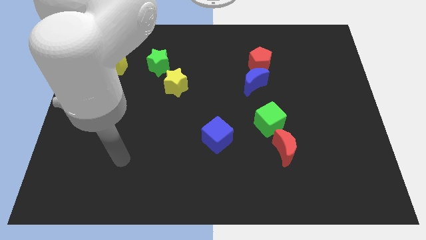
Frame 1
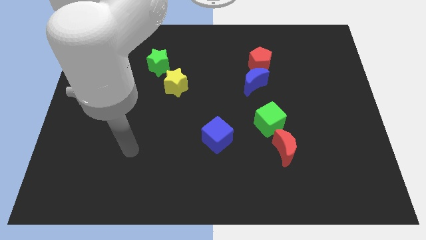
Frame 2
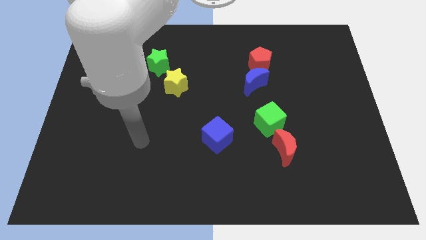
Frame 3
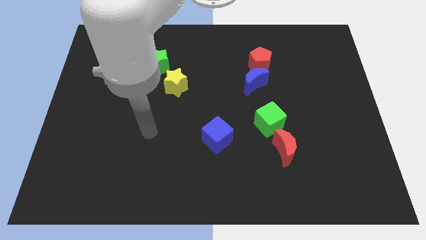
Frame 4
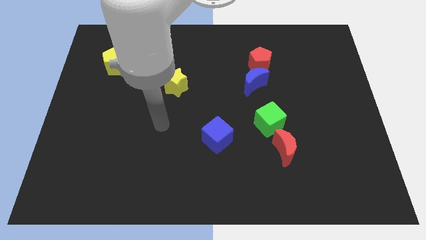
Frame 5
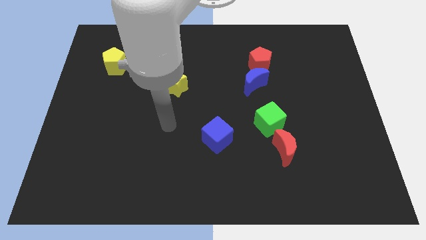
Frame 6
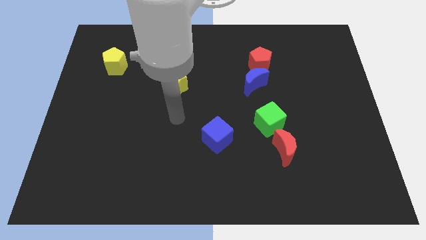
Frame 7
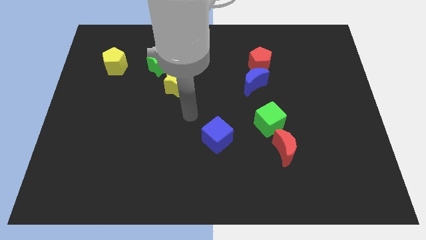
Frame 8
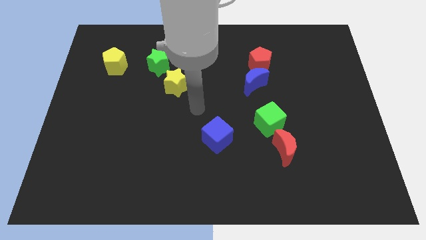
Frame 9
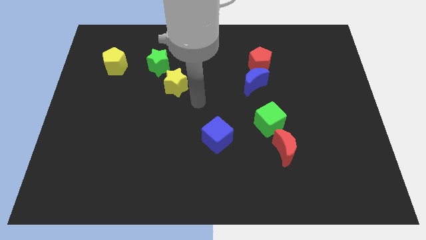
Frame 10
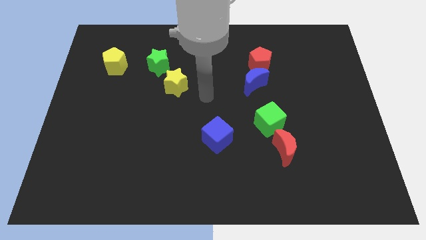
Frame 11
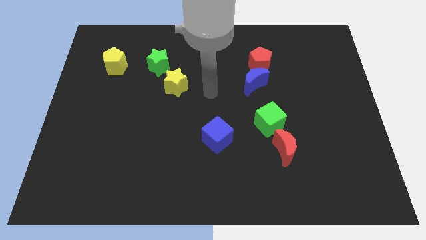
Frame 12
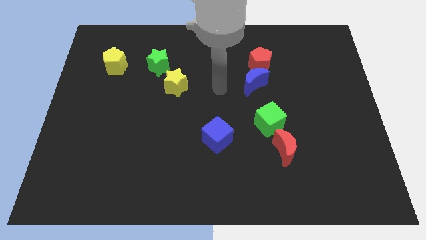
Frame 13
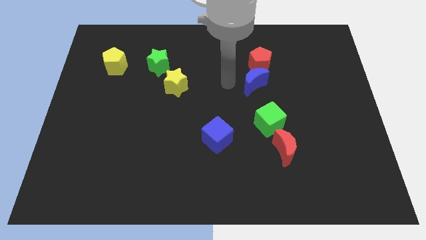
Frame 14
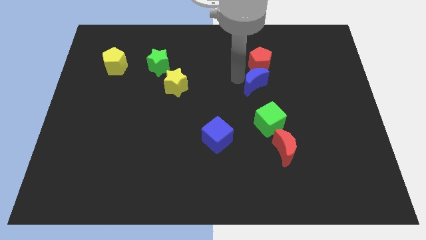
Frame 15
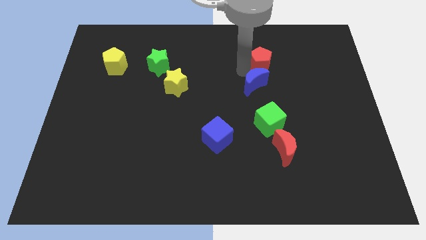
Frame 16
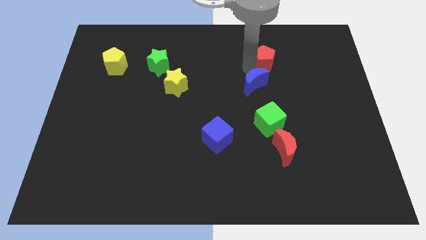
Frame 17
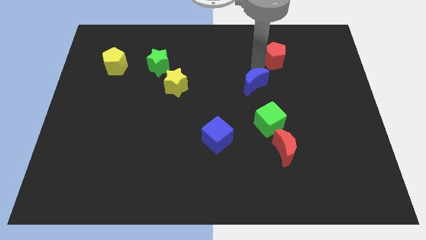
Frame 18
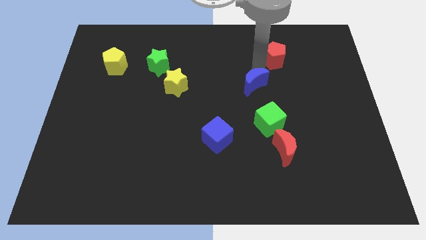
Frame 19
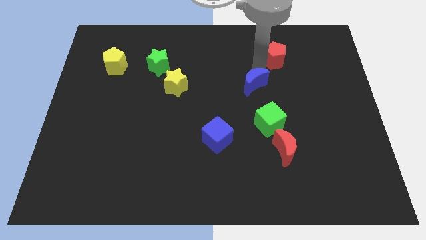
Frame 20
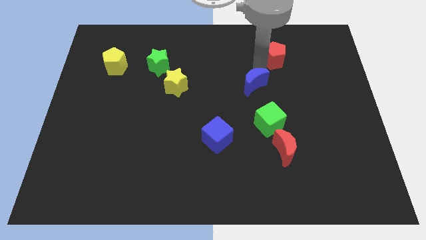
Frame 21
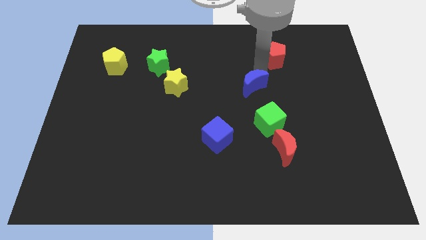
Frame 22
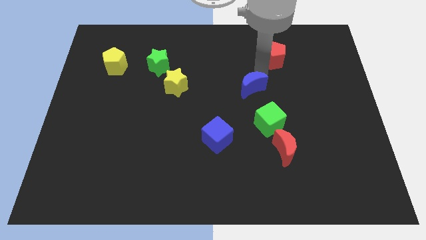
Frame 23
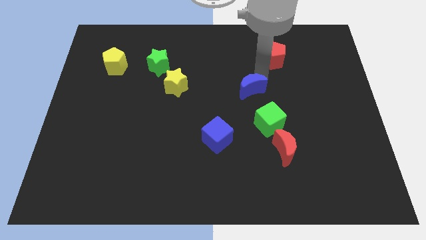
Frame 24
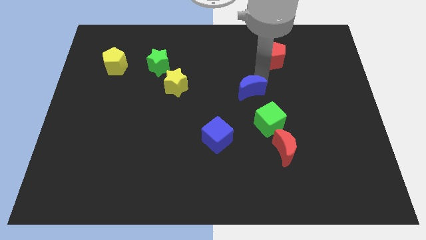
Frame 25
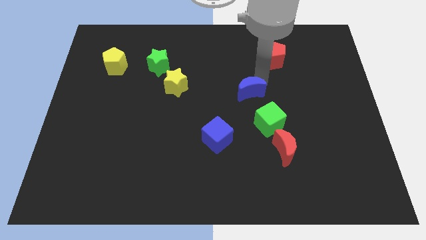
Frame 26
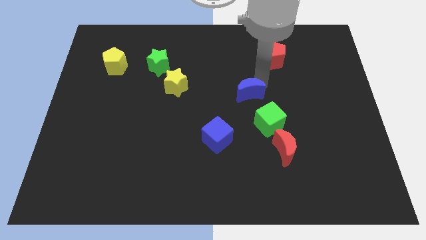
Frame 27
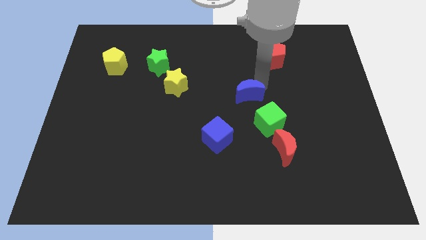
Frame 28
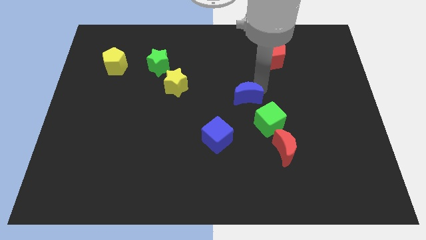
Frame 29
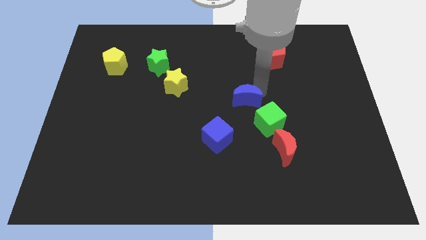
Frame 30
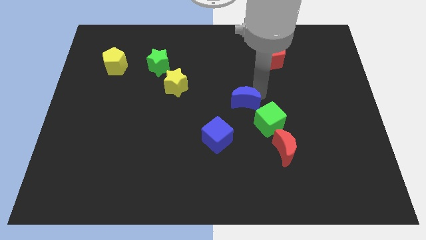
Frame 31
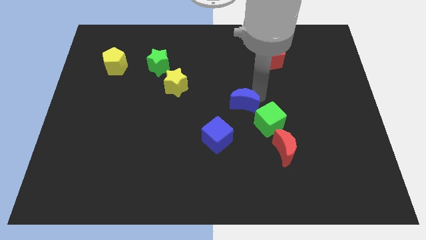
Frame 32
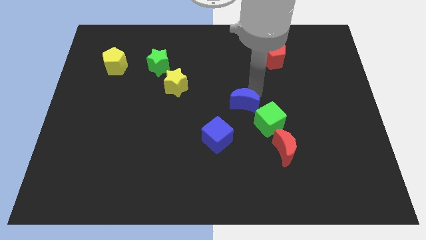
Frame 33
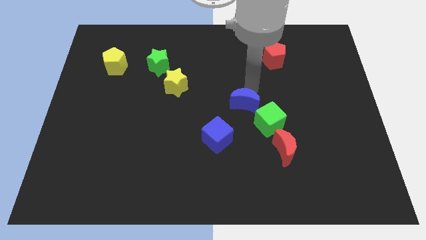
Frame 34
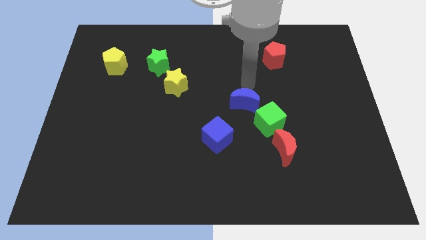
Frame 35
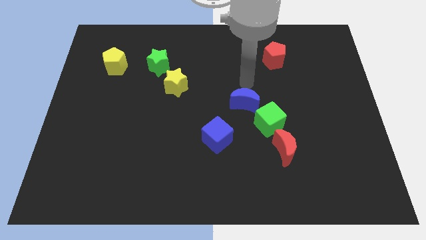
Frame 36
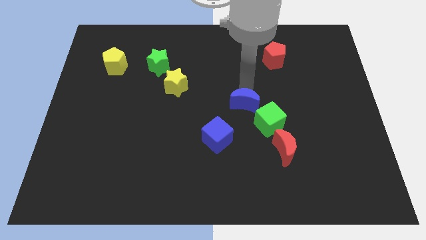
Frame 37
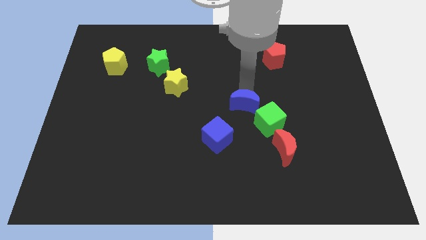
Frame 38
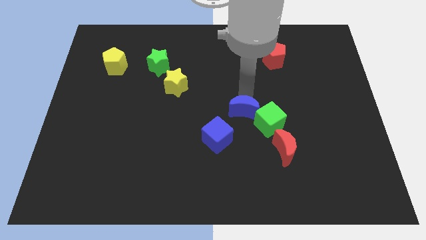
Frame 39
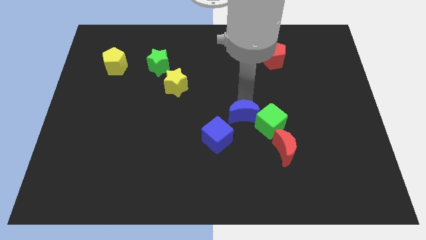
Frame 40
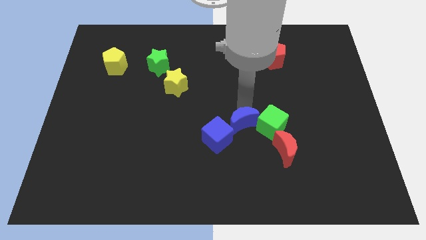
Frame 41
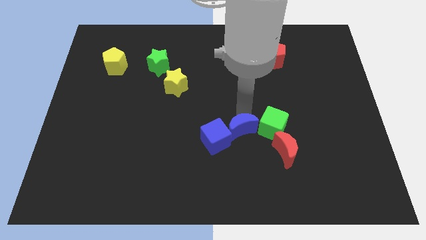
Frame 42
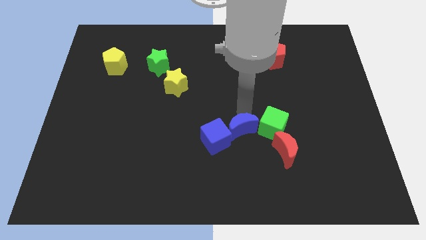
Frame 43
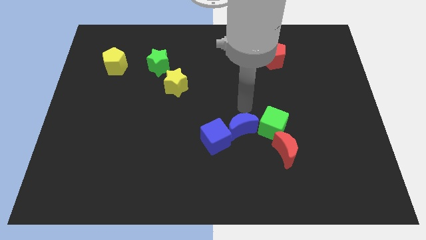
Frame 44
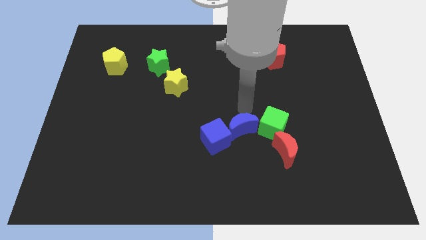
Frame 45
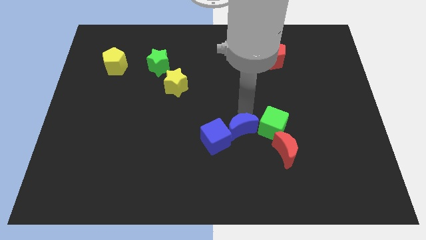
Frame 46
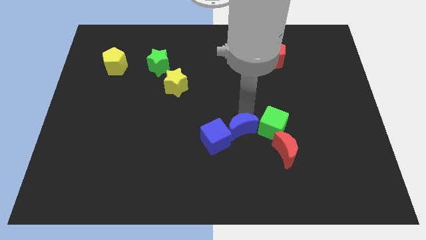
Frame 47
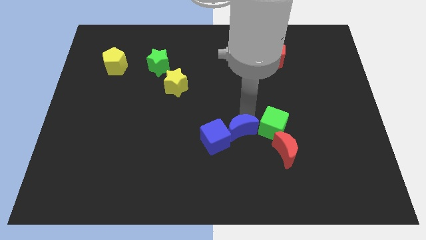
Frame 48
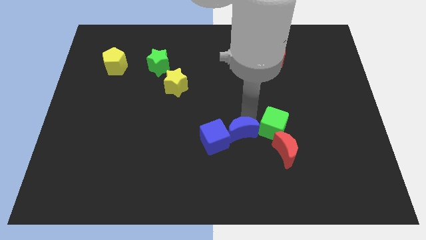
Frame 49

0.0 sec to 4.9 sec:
push the blue moon to the left of the red moon

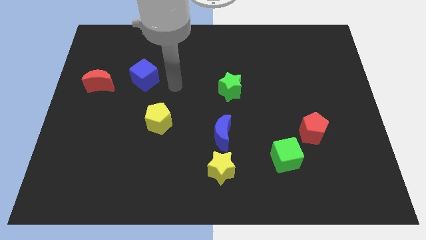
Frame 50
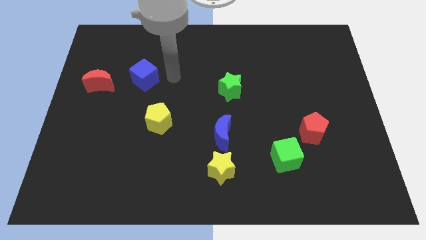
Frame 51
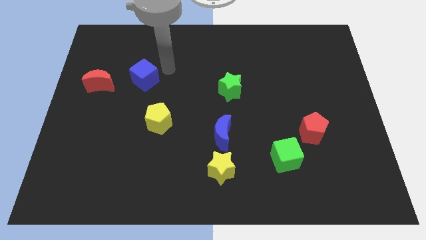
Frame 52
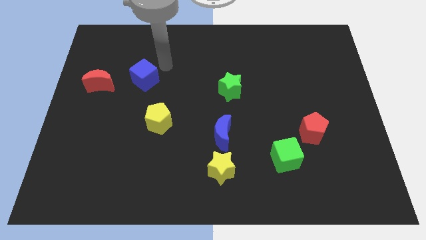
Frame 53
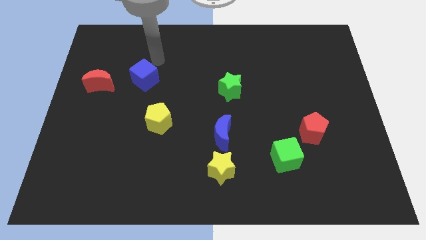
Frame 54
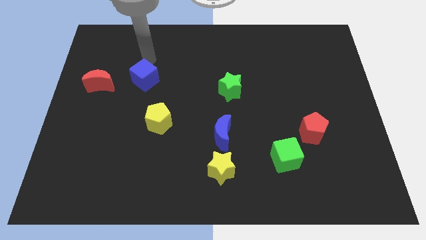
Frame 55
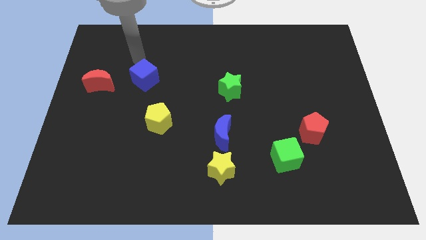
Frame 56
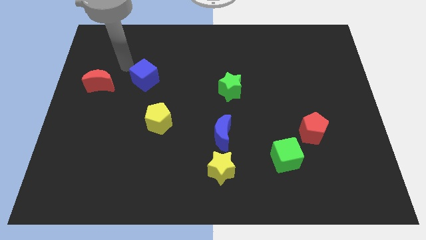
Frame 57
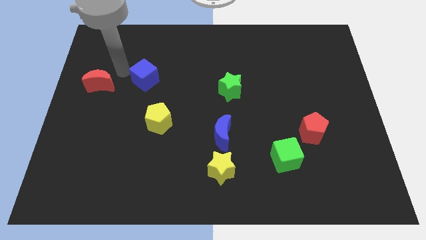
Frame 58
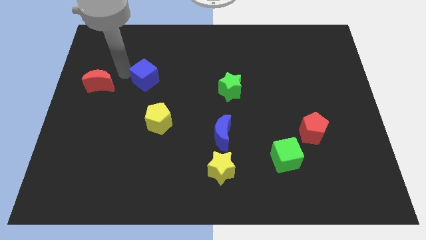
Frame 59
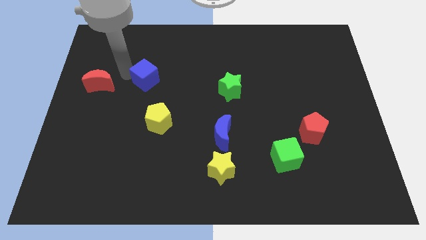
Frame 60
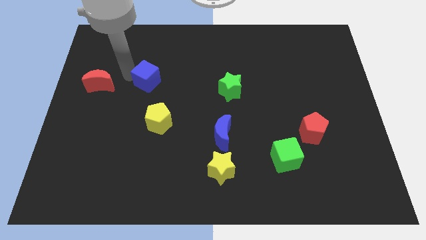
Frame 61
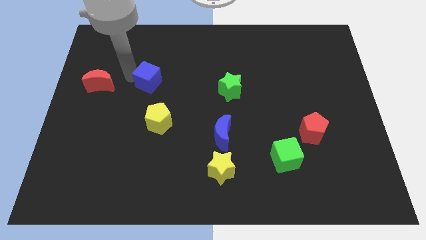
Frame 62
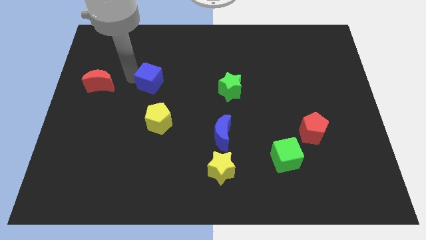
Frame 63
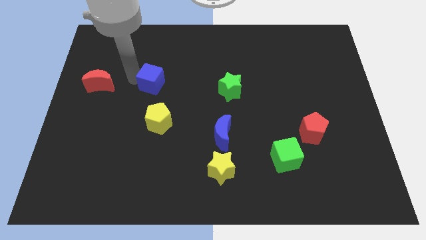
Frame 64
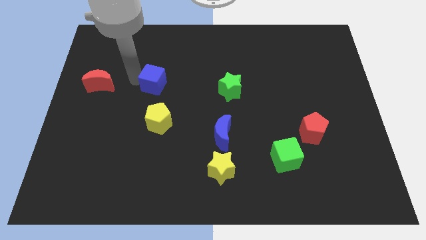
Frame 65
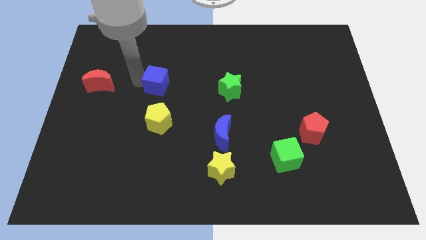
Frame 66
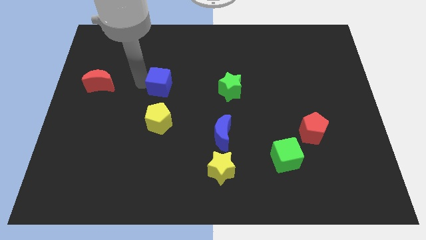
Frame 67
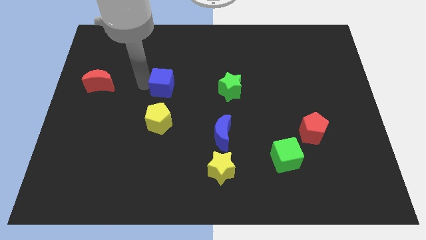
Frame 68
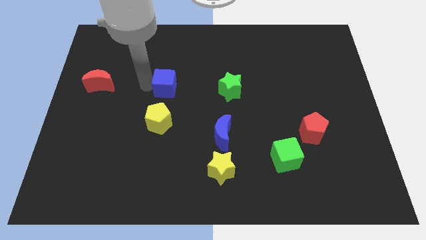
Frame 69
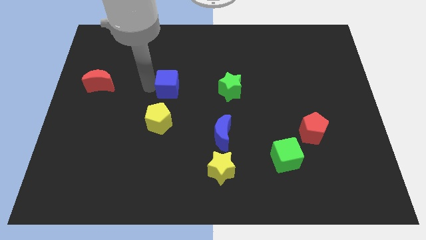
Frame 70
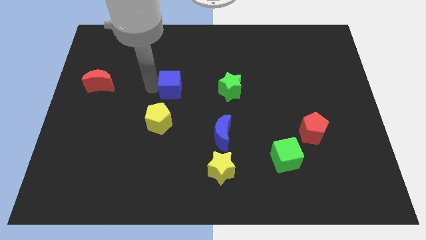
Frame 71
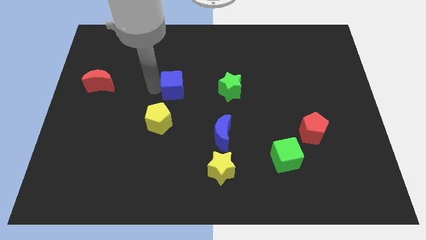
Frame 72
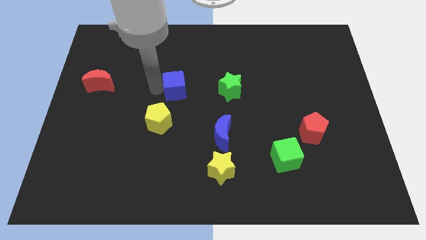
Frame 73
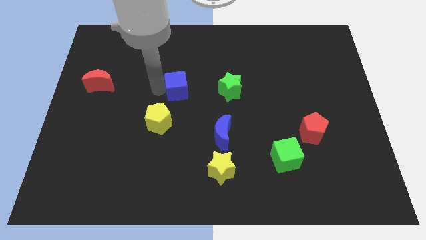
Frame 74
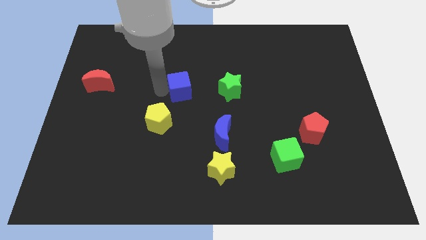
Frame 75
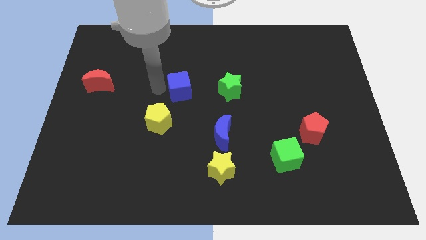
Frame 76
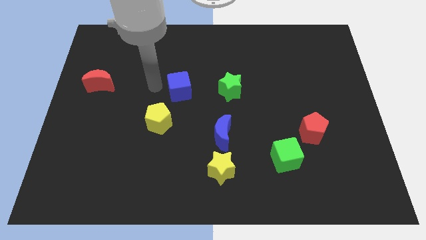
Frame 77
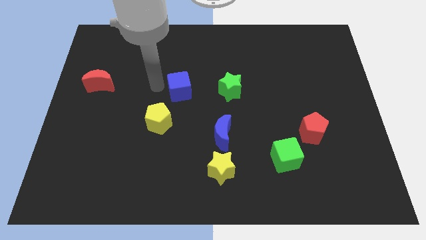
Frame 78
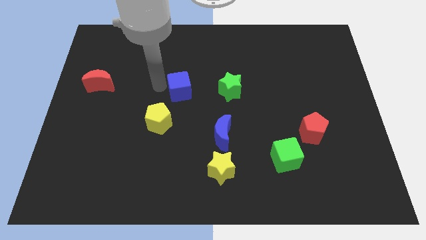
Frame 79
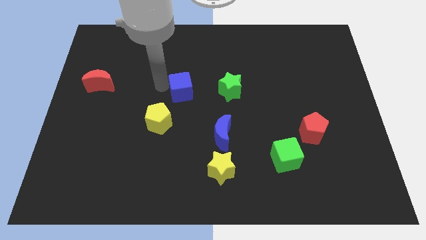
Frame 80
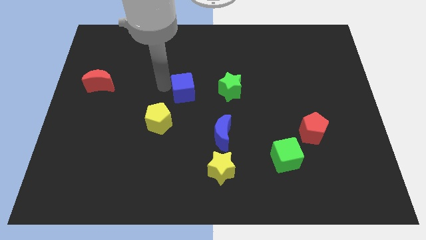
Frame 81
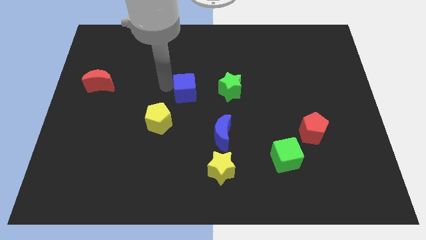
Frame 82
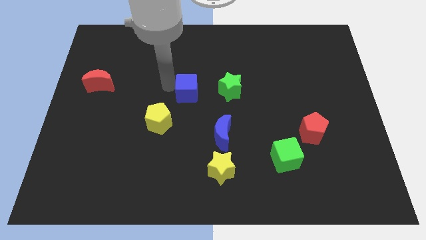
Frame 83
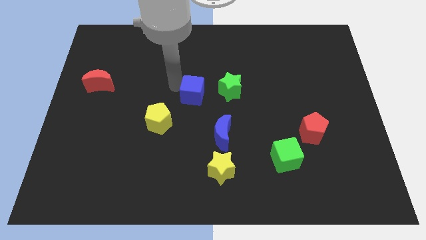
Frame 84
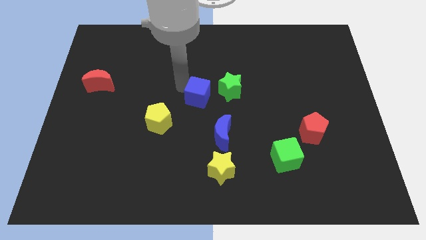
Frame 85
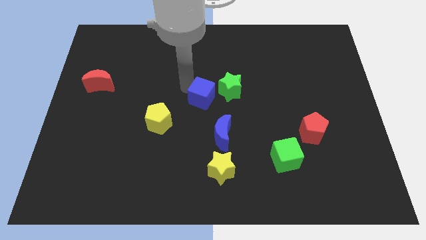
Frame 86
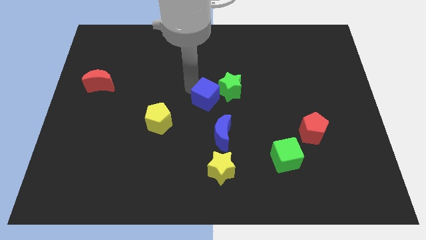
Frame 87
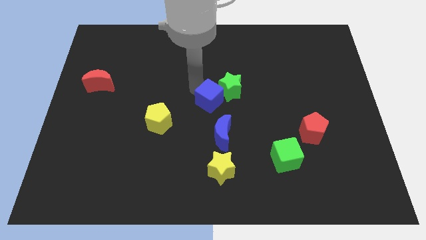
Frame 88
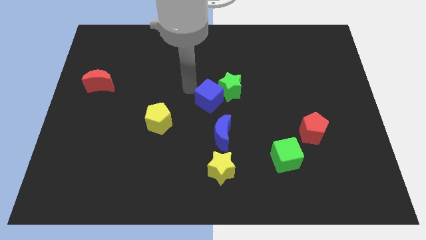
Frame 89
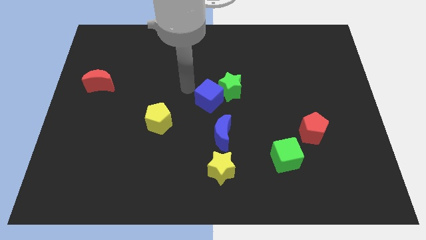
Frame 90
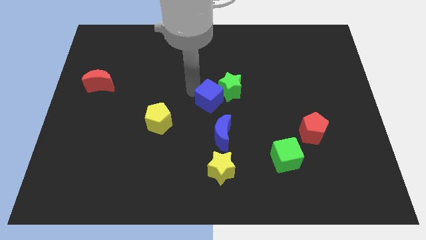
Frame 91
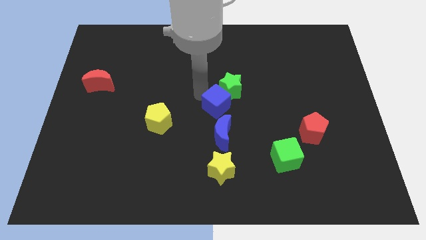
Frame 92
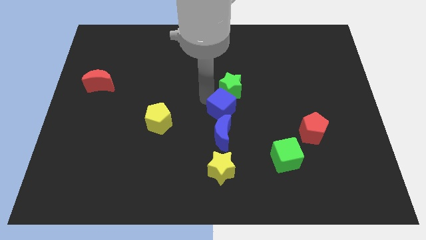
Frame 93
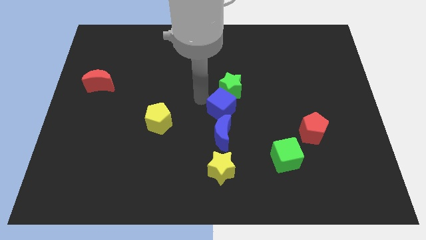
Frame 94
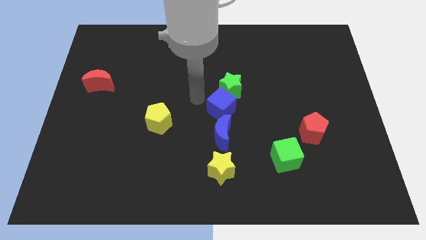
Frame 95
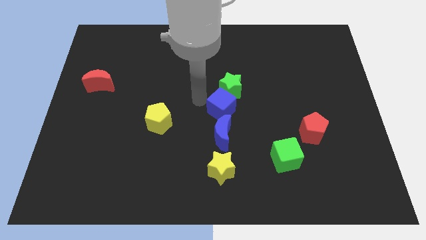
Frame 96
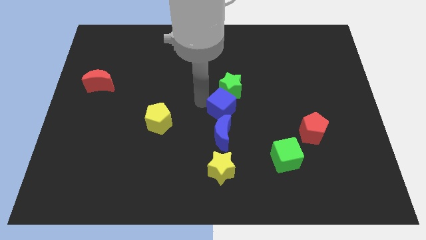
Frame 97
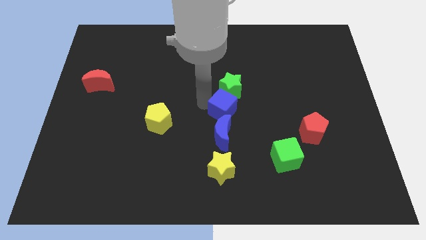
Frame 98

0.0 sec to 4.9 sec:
push the blue cube diagonally up and to the right of the blue moon
